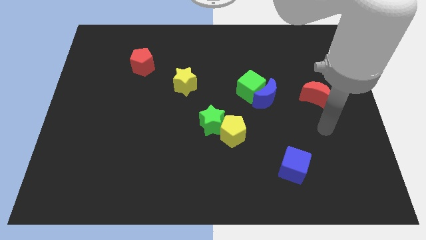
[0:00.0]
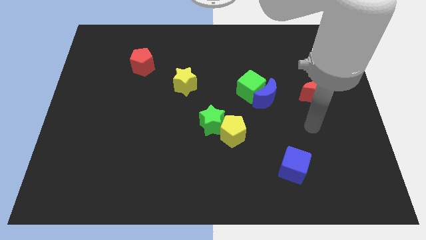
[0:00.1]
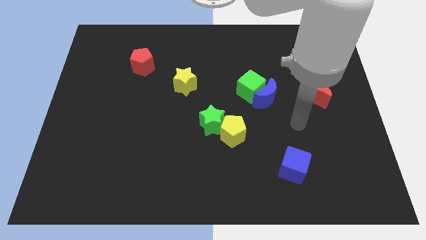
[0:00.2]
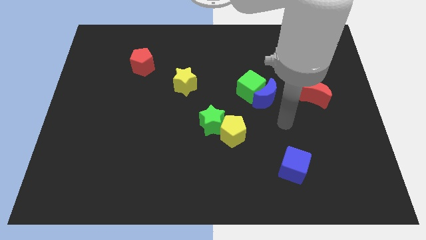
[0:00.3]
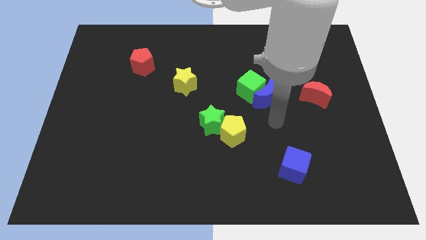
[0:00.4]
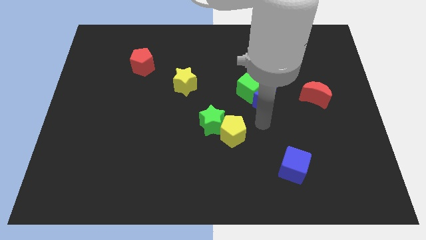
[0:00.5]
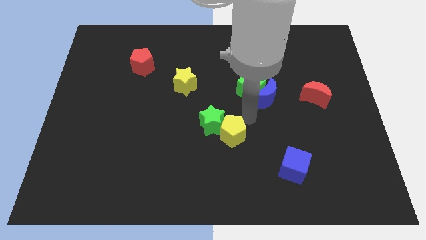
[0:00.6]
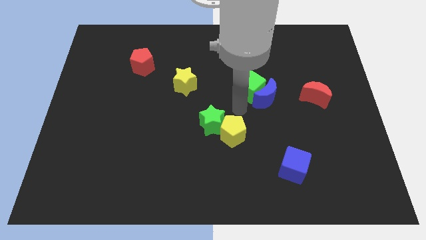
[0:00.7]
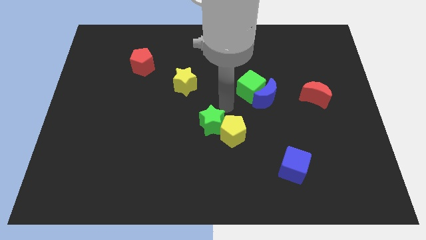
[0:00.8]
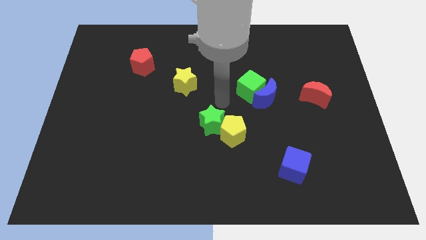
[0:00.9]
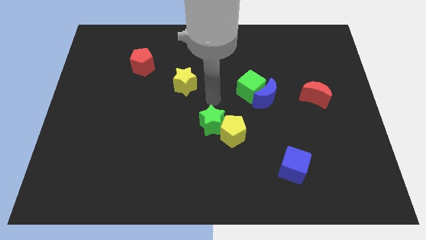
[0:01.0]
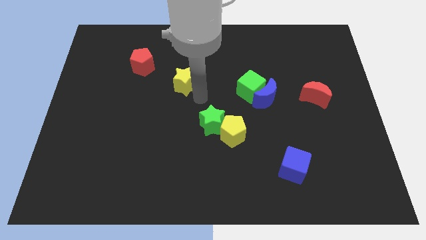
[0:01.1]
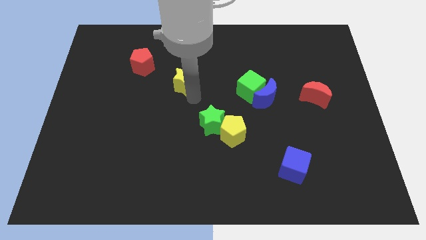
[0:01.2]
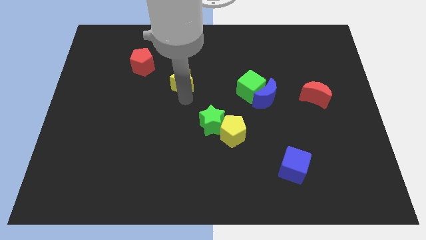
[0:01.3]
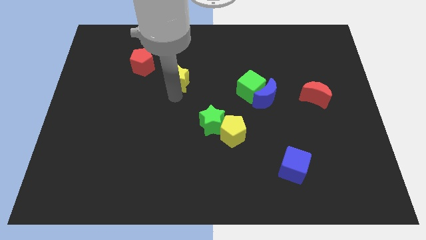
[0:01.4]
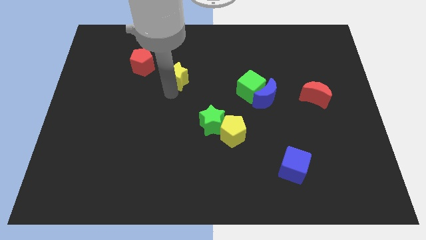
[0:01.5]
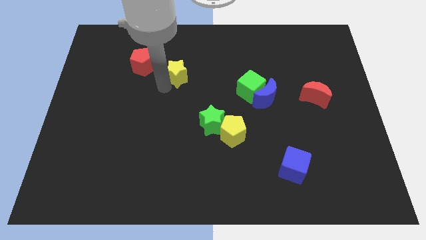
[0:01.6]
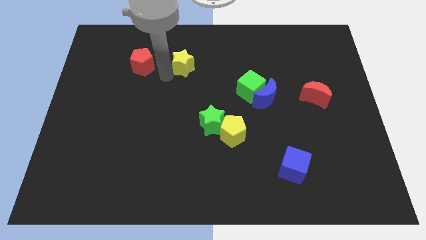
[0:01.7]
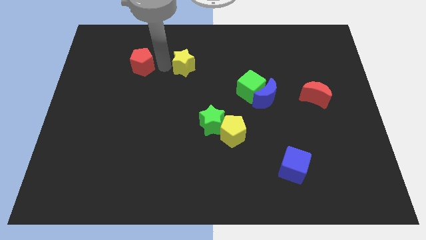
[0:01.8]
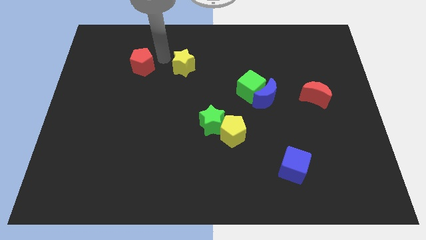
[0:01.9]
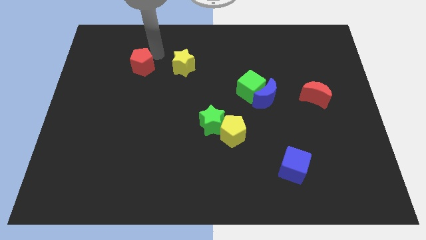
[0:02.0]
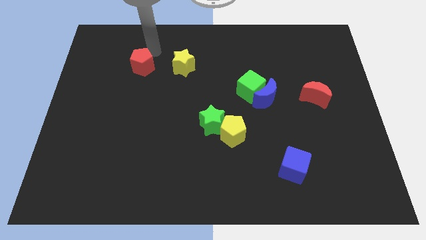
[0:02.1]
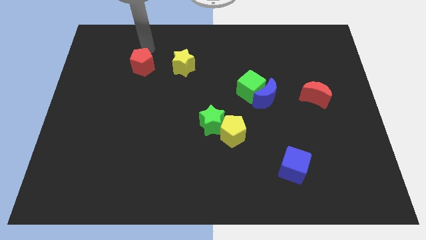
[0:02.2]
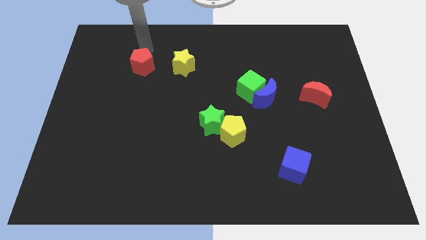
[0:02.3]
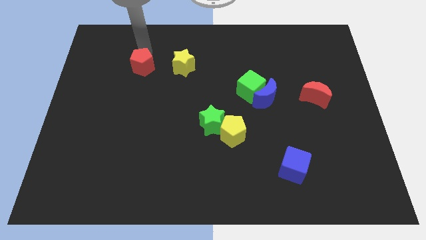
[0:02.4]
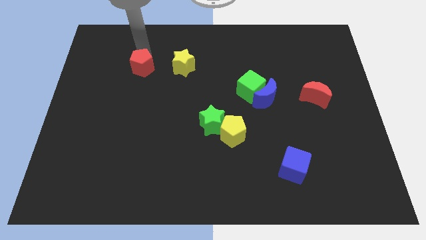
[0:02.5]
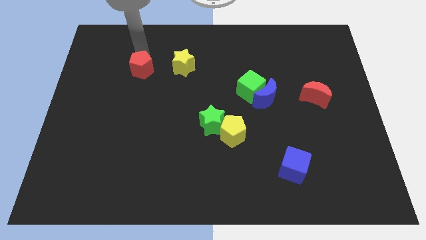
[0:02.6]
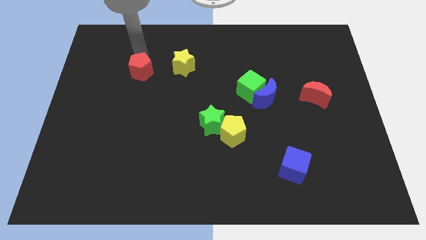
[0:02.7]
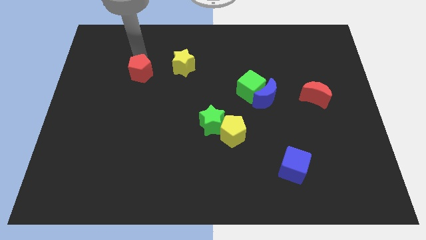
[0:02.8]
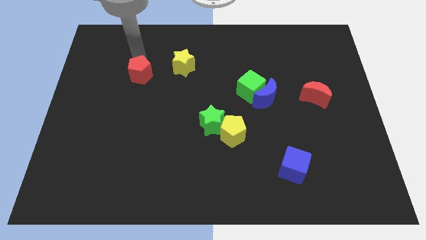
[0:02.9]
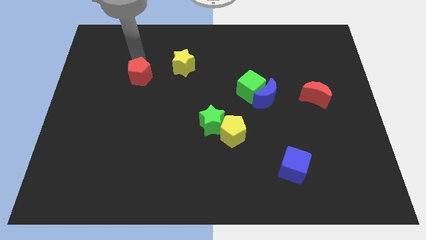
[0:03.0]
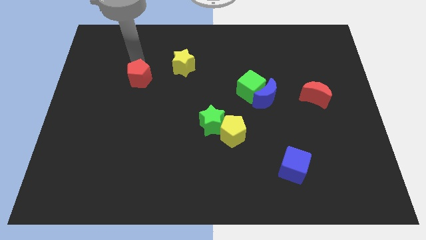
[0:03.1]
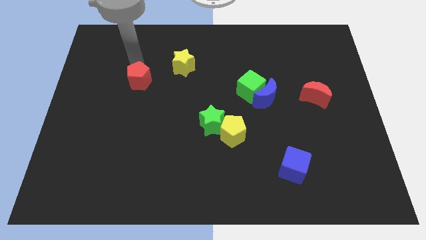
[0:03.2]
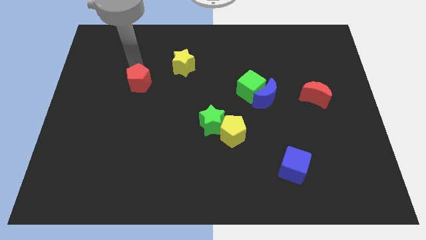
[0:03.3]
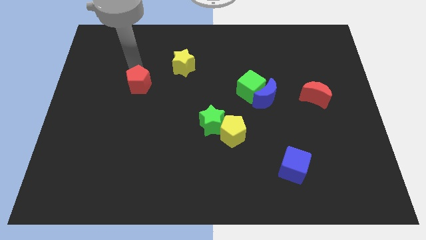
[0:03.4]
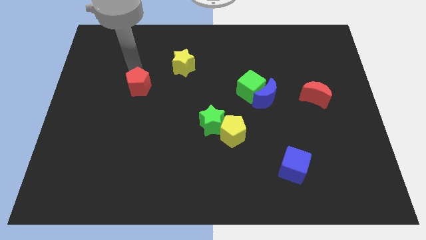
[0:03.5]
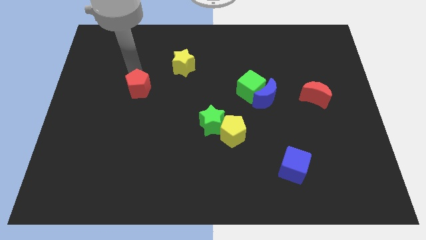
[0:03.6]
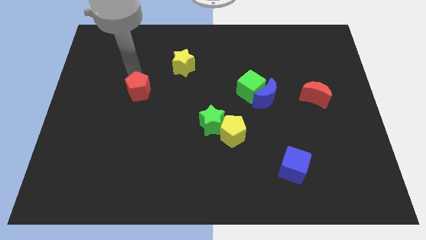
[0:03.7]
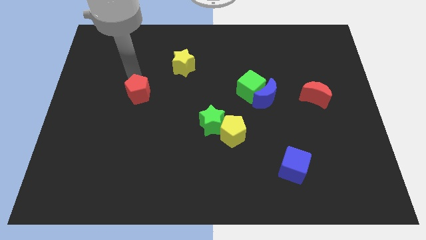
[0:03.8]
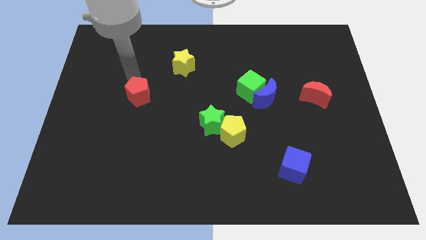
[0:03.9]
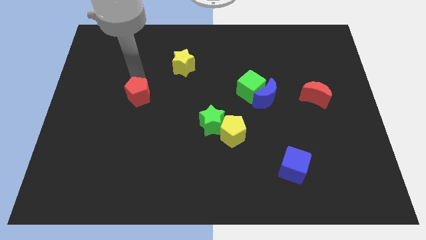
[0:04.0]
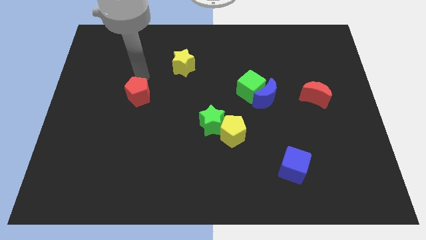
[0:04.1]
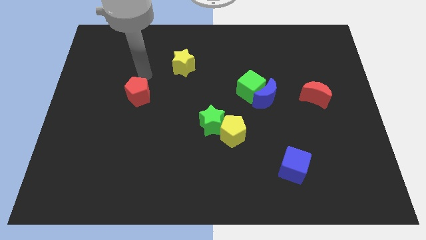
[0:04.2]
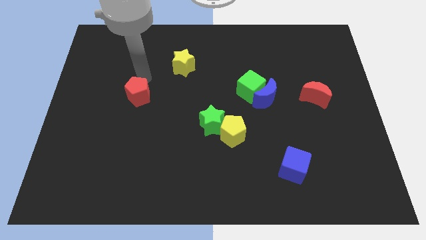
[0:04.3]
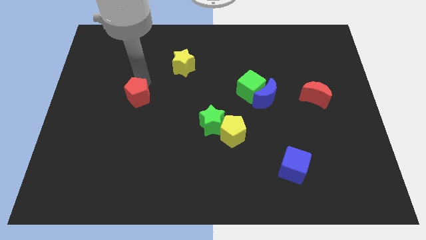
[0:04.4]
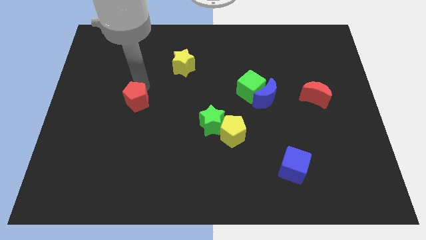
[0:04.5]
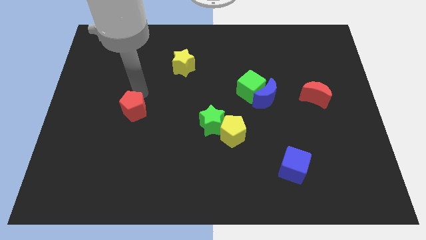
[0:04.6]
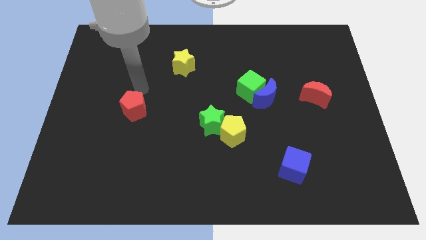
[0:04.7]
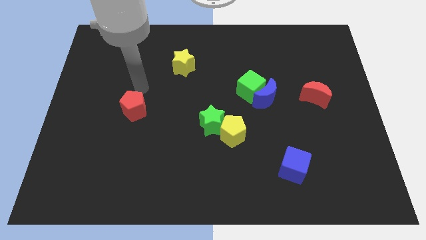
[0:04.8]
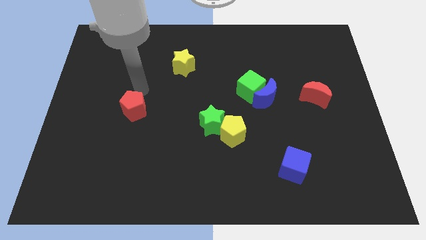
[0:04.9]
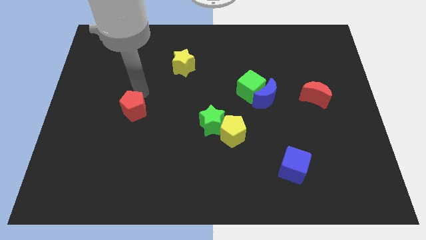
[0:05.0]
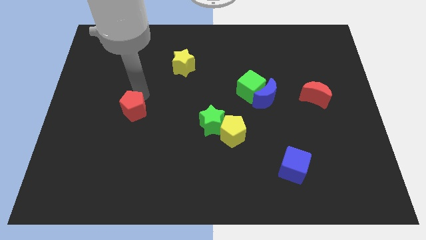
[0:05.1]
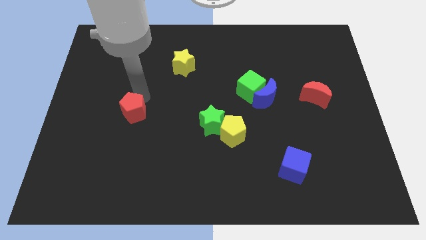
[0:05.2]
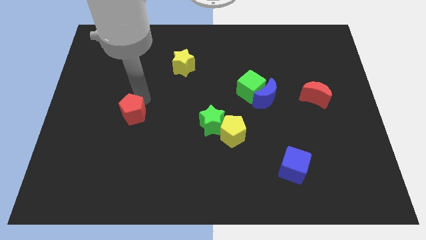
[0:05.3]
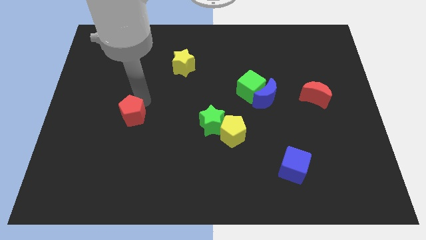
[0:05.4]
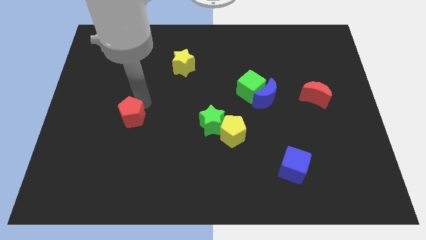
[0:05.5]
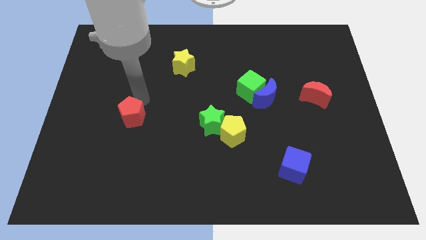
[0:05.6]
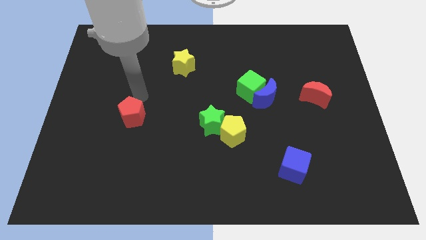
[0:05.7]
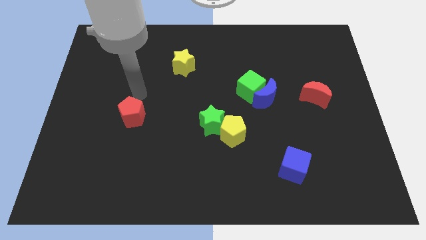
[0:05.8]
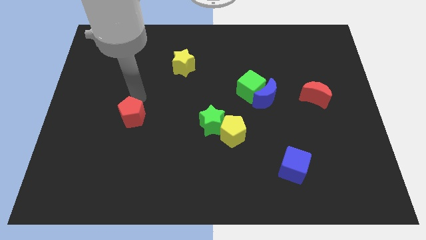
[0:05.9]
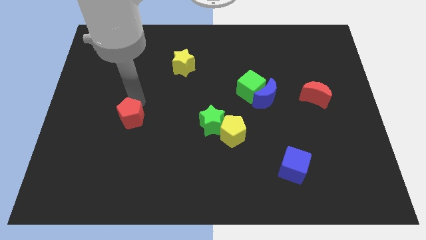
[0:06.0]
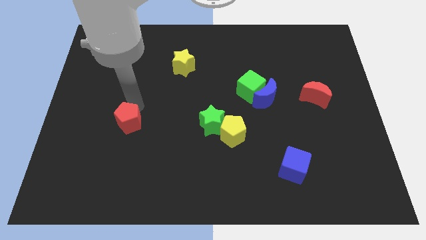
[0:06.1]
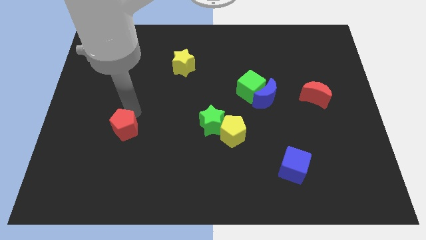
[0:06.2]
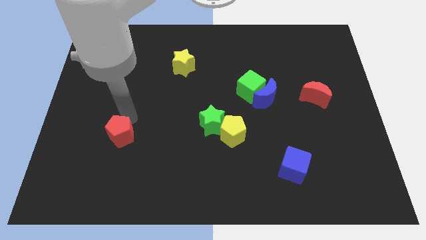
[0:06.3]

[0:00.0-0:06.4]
push the red pentagon downwards

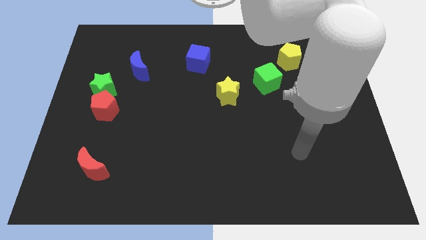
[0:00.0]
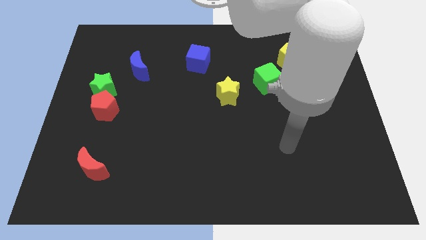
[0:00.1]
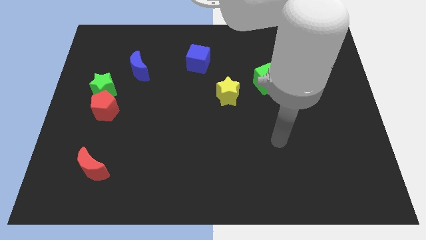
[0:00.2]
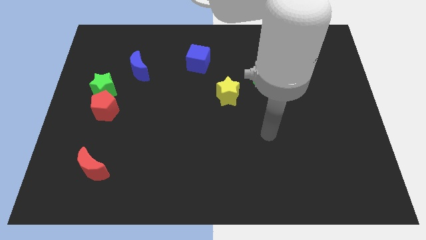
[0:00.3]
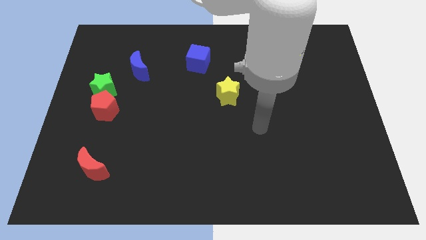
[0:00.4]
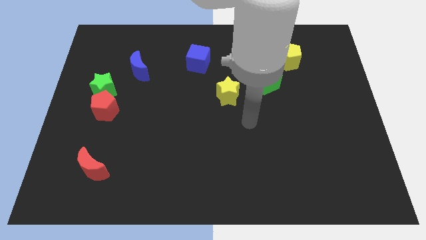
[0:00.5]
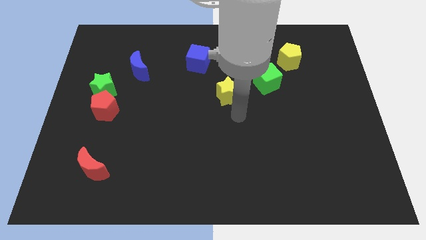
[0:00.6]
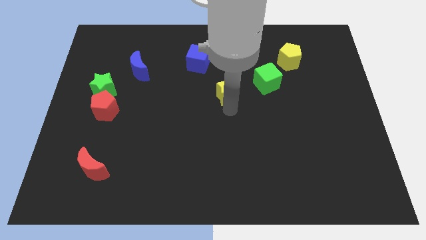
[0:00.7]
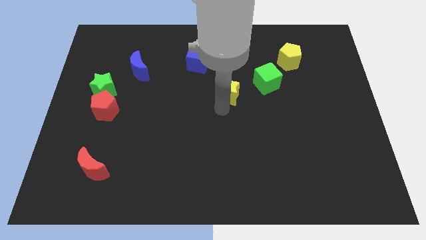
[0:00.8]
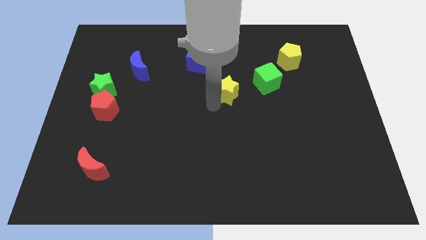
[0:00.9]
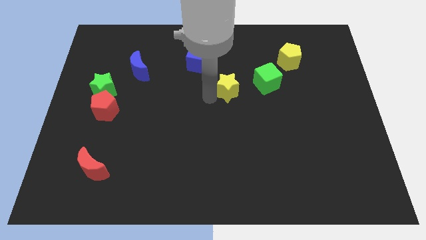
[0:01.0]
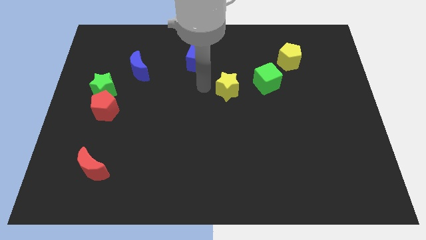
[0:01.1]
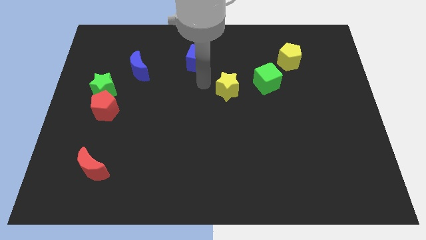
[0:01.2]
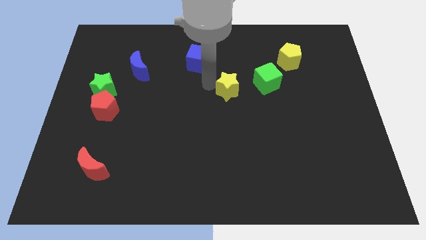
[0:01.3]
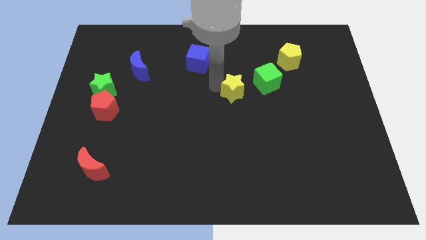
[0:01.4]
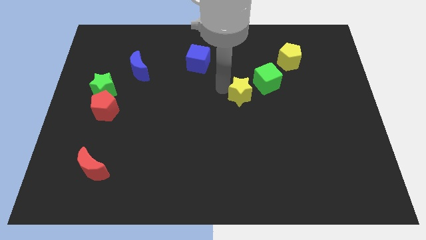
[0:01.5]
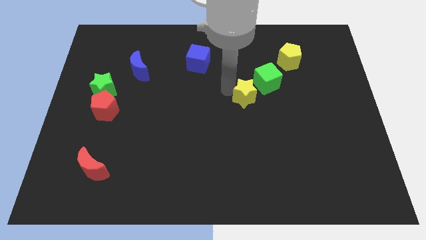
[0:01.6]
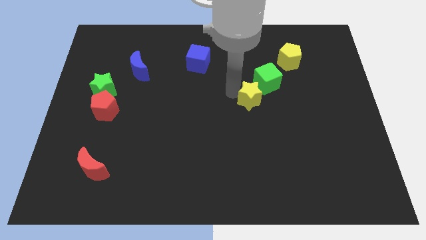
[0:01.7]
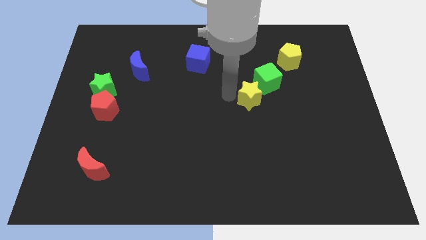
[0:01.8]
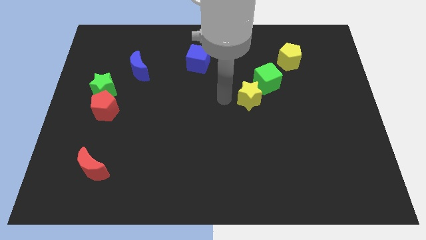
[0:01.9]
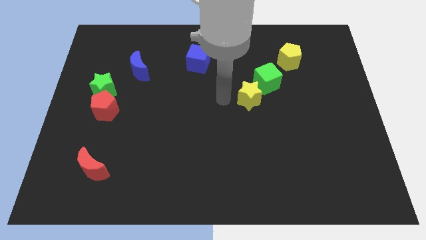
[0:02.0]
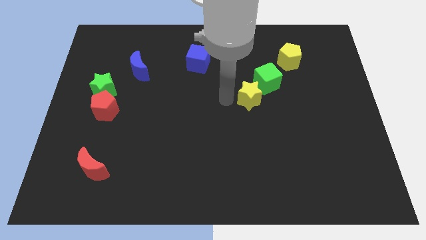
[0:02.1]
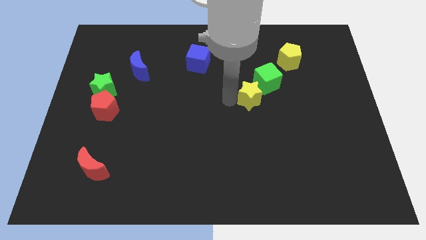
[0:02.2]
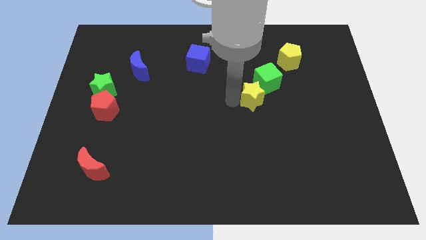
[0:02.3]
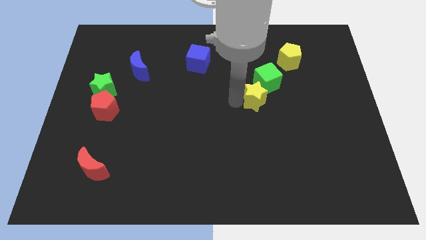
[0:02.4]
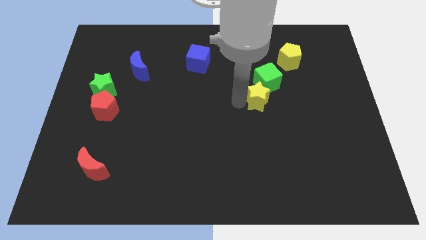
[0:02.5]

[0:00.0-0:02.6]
move the yellow star a bit to the right
